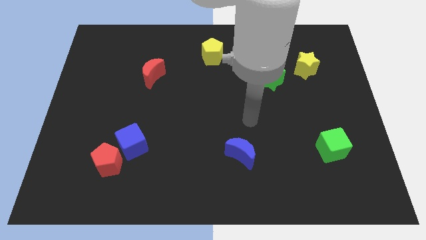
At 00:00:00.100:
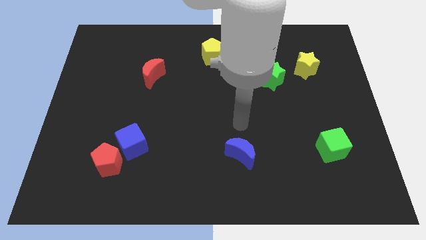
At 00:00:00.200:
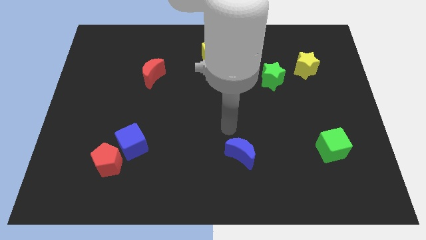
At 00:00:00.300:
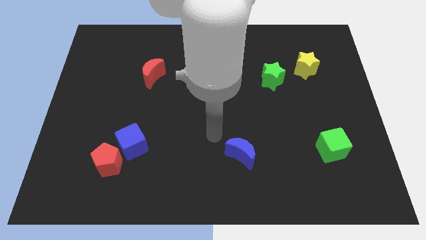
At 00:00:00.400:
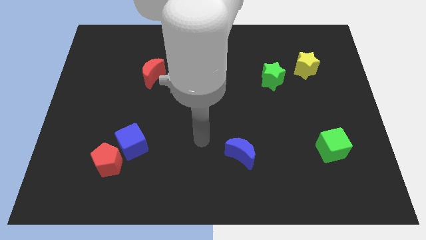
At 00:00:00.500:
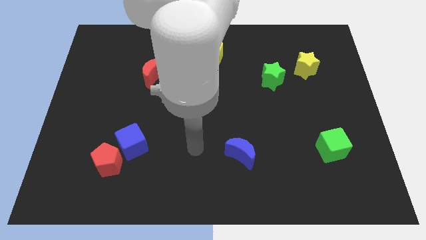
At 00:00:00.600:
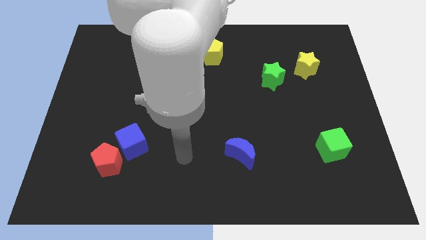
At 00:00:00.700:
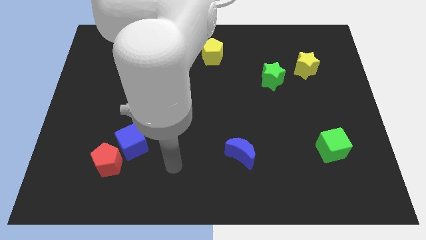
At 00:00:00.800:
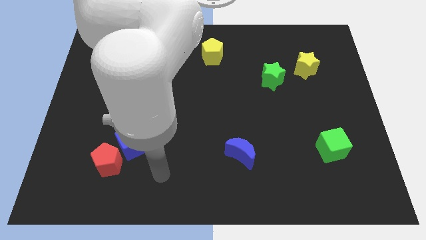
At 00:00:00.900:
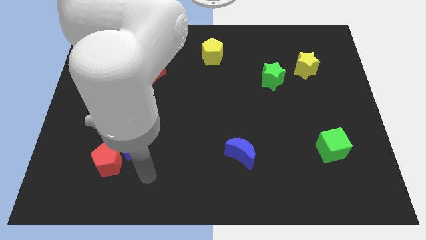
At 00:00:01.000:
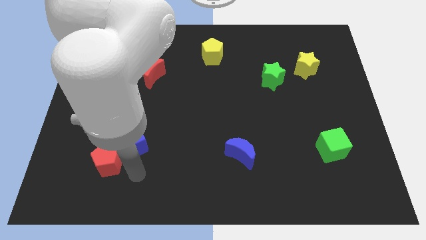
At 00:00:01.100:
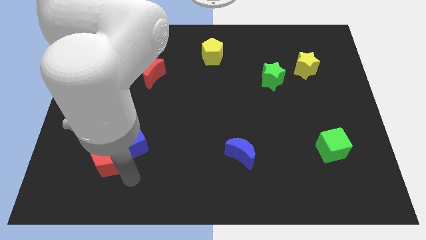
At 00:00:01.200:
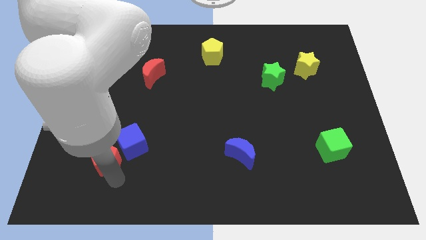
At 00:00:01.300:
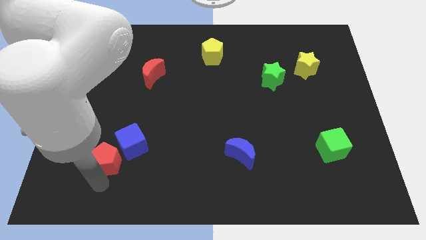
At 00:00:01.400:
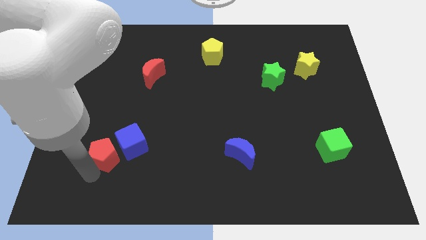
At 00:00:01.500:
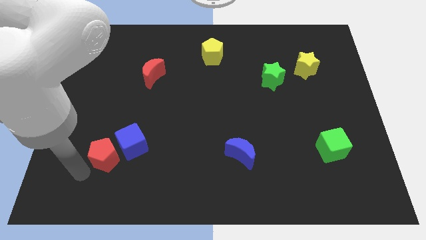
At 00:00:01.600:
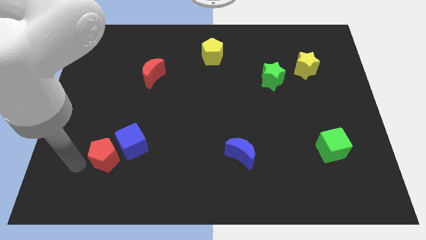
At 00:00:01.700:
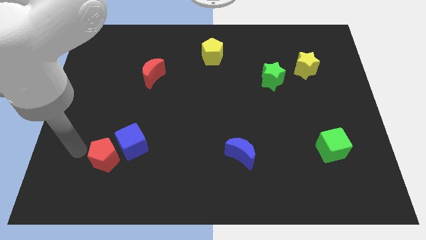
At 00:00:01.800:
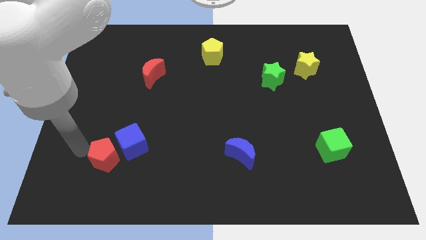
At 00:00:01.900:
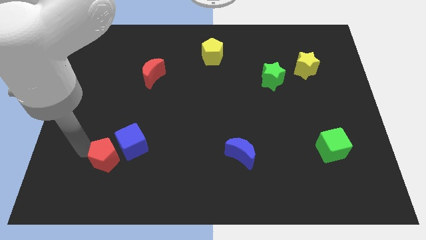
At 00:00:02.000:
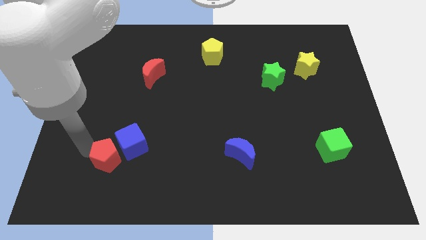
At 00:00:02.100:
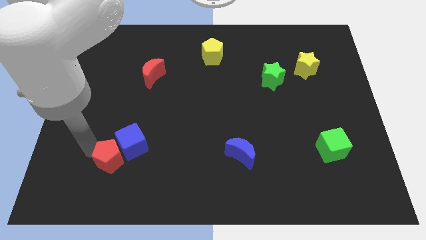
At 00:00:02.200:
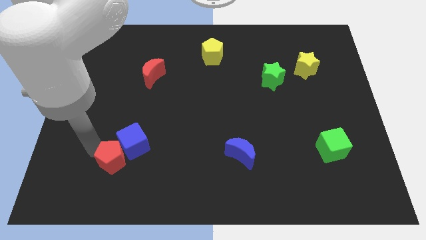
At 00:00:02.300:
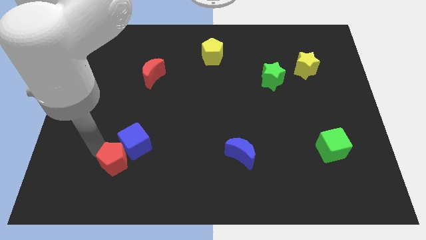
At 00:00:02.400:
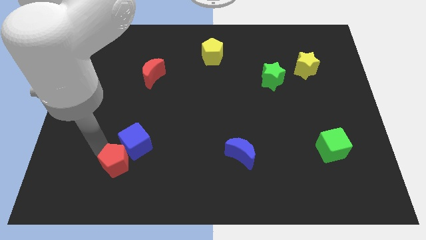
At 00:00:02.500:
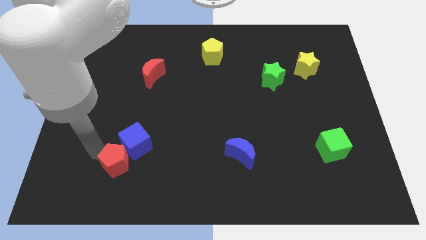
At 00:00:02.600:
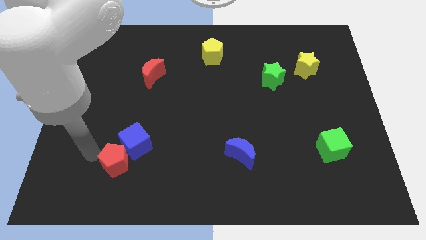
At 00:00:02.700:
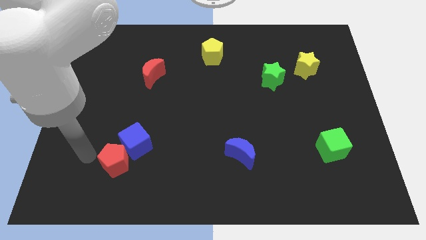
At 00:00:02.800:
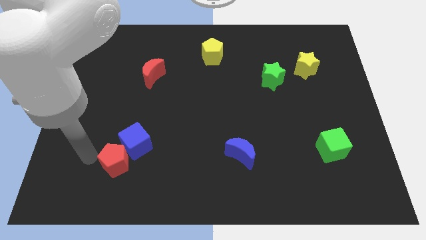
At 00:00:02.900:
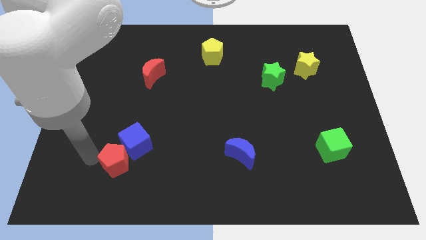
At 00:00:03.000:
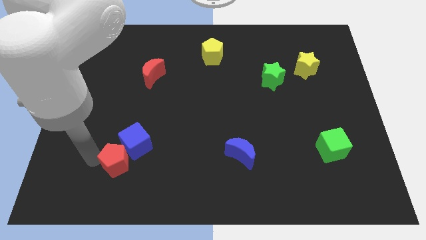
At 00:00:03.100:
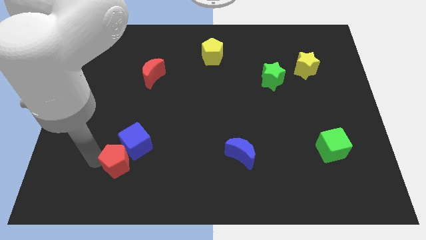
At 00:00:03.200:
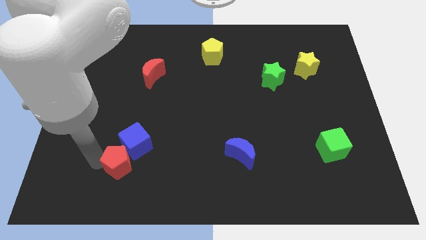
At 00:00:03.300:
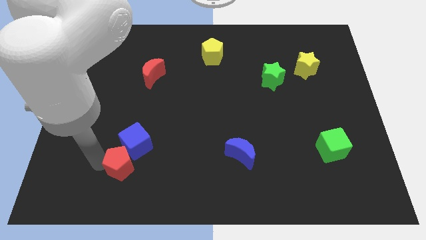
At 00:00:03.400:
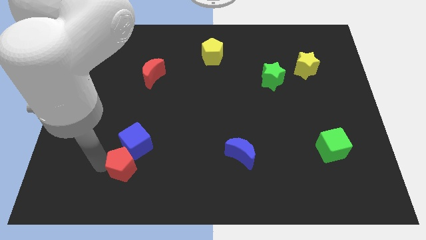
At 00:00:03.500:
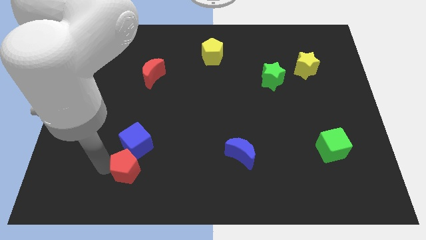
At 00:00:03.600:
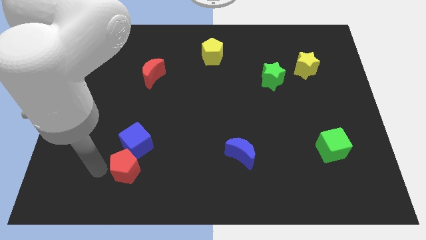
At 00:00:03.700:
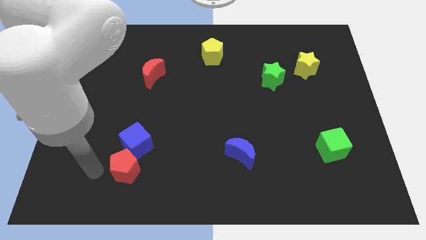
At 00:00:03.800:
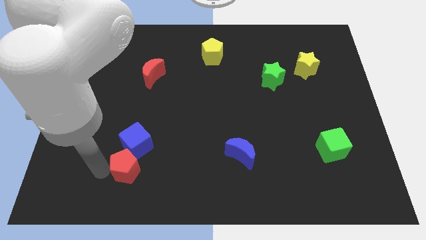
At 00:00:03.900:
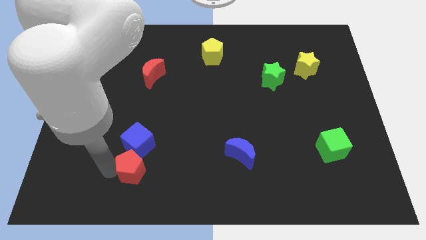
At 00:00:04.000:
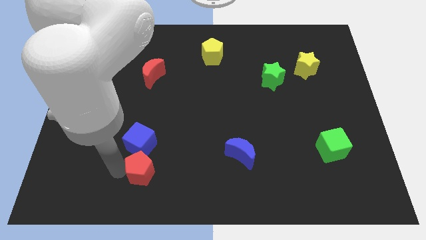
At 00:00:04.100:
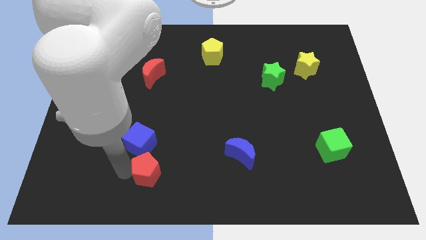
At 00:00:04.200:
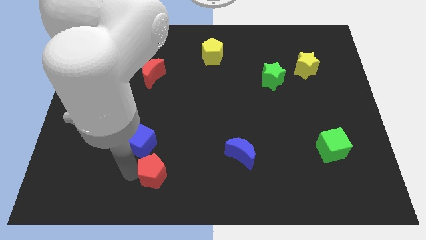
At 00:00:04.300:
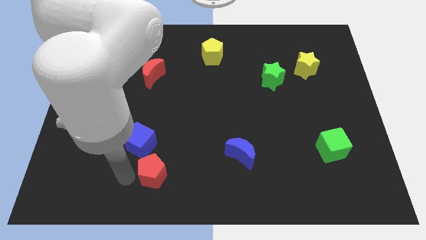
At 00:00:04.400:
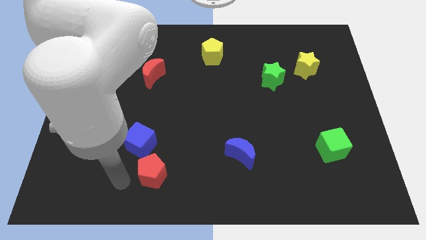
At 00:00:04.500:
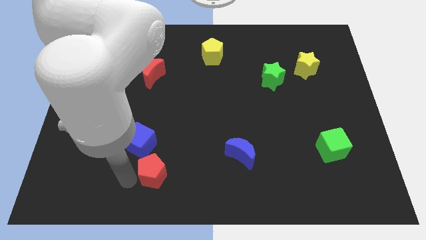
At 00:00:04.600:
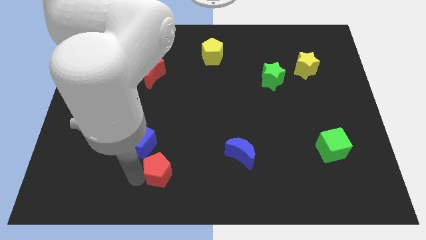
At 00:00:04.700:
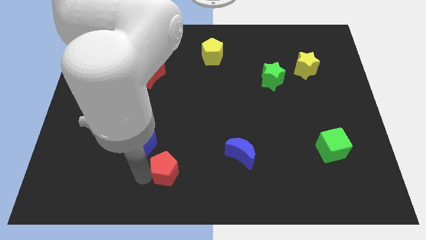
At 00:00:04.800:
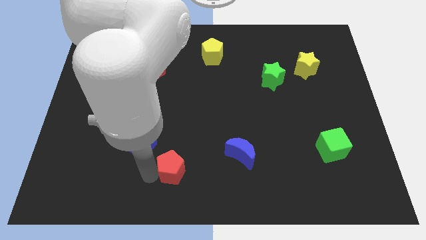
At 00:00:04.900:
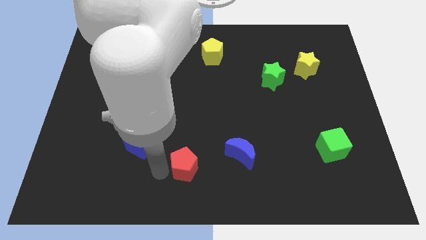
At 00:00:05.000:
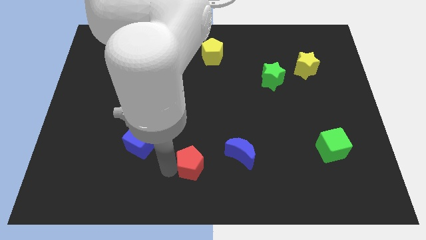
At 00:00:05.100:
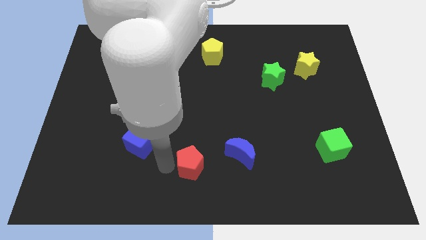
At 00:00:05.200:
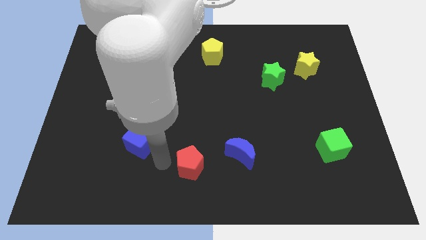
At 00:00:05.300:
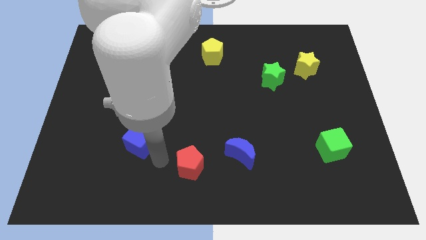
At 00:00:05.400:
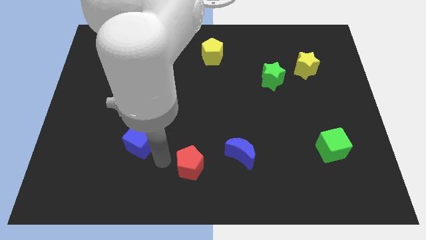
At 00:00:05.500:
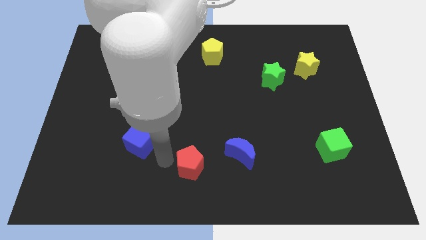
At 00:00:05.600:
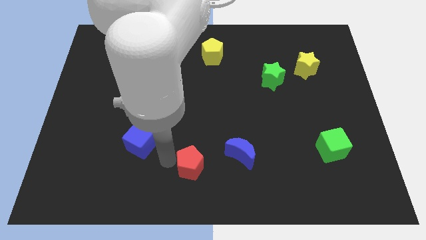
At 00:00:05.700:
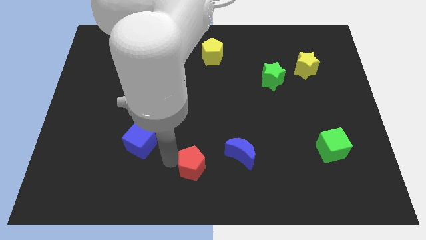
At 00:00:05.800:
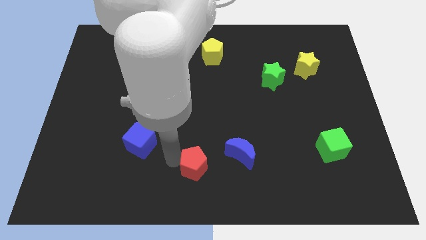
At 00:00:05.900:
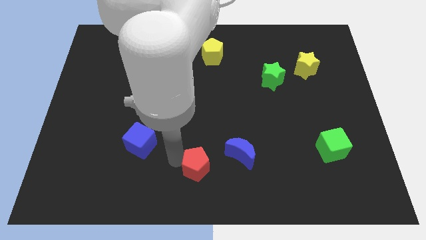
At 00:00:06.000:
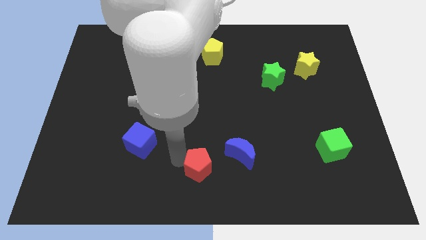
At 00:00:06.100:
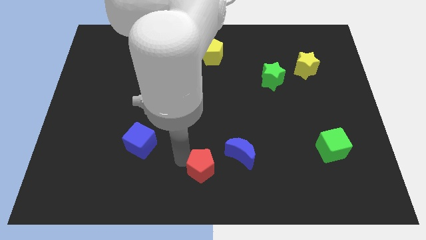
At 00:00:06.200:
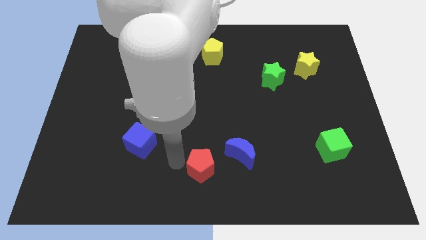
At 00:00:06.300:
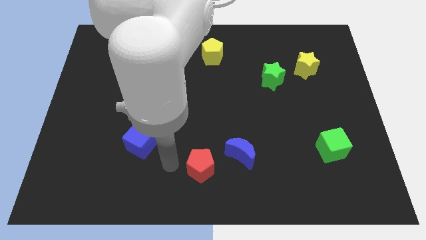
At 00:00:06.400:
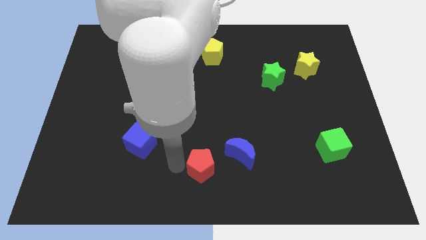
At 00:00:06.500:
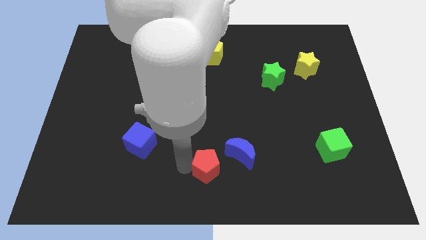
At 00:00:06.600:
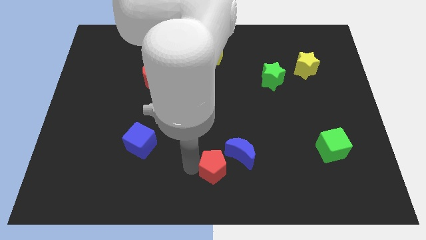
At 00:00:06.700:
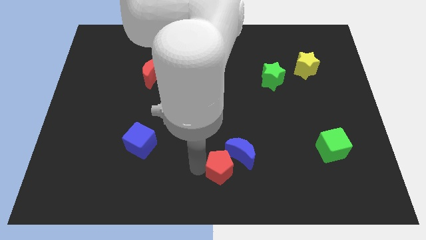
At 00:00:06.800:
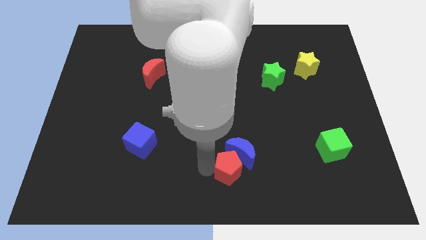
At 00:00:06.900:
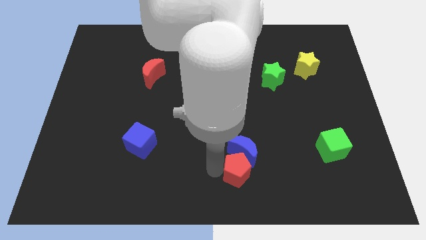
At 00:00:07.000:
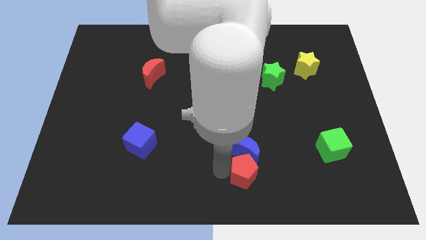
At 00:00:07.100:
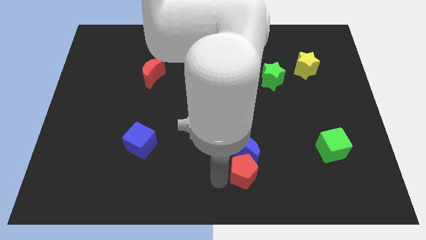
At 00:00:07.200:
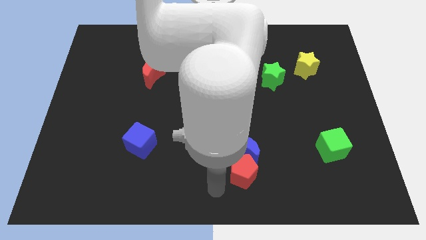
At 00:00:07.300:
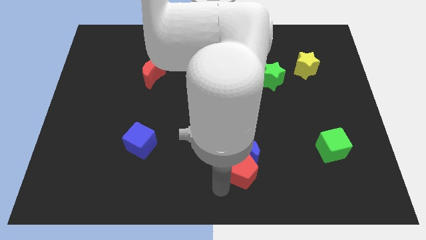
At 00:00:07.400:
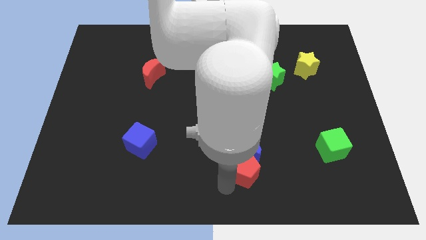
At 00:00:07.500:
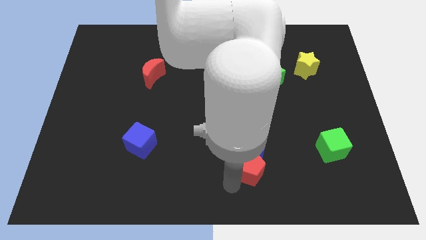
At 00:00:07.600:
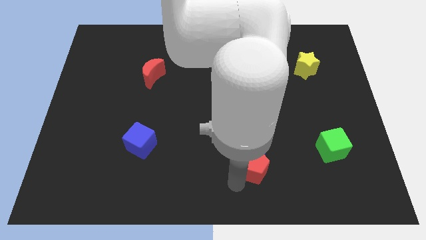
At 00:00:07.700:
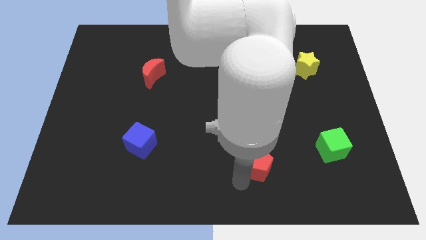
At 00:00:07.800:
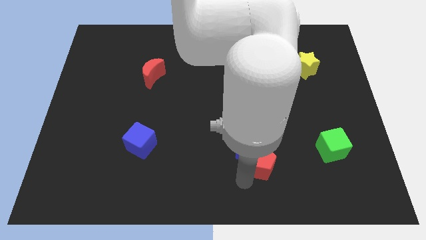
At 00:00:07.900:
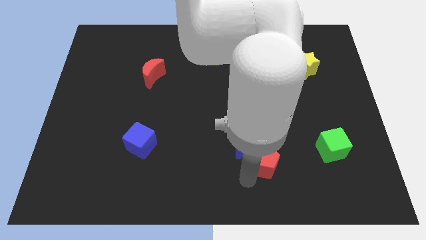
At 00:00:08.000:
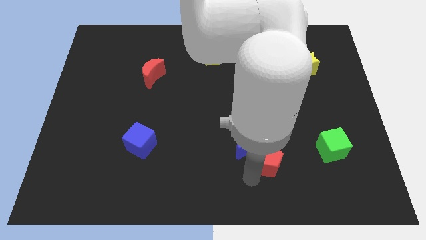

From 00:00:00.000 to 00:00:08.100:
push the red pentagon to the left side of the green cube
